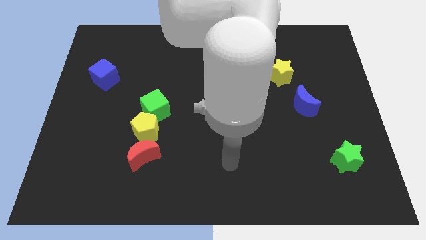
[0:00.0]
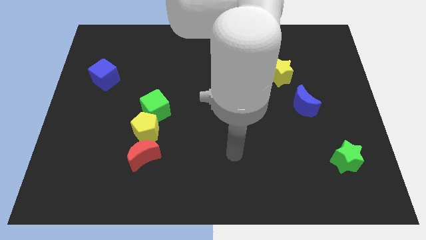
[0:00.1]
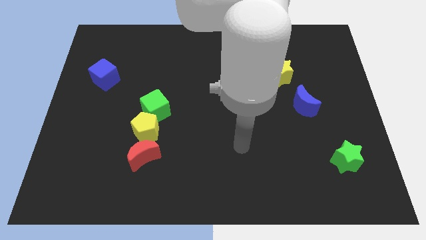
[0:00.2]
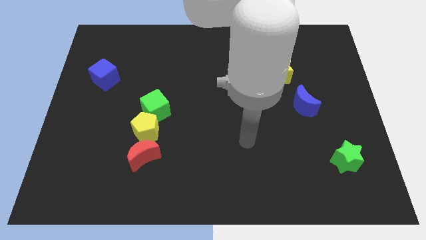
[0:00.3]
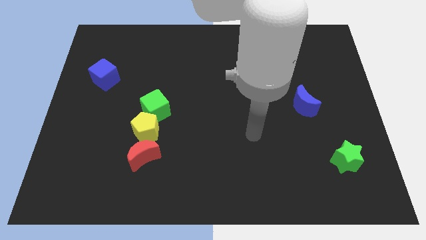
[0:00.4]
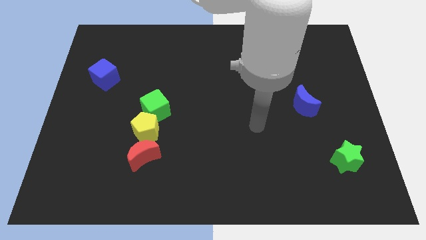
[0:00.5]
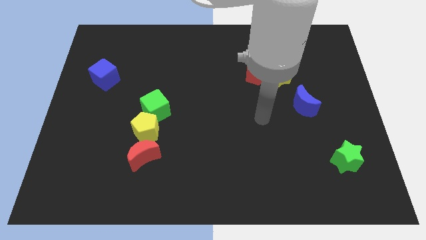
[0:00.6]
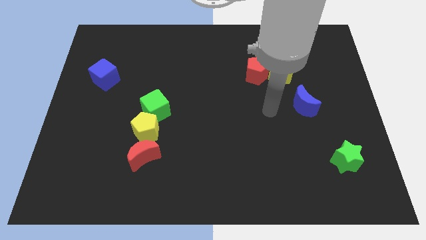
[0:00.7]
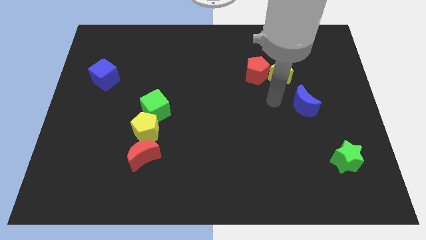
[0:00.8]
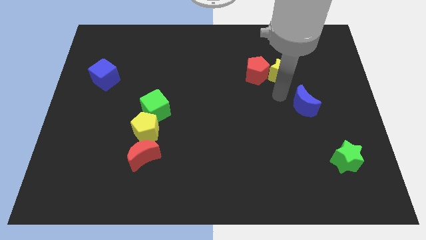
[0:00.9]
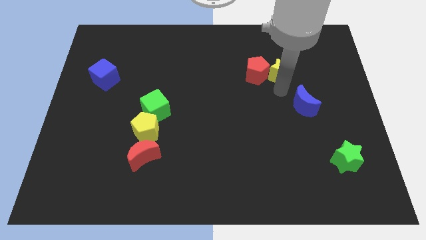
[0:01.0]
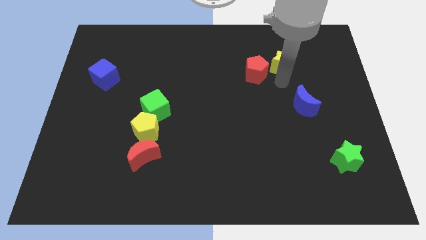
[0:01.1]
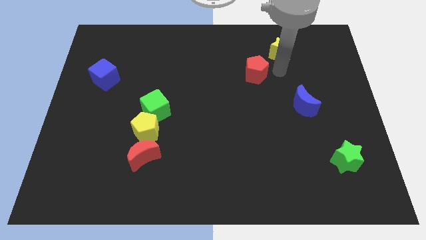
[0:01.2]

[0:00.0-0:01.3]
separate the red pentagon from the yellow star

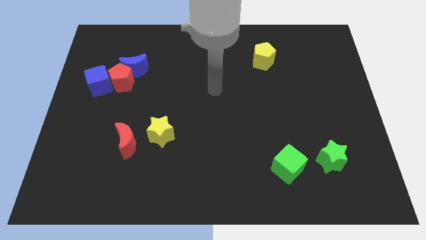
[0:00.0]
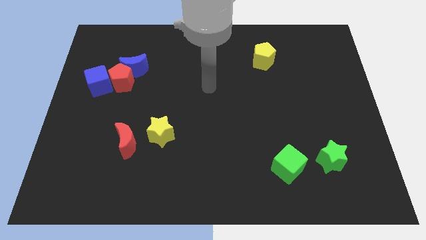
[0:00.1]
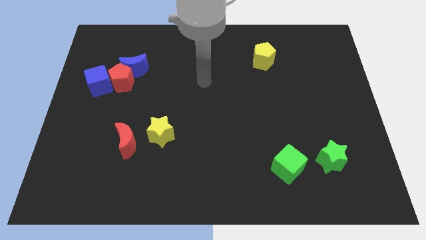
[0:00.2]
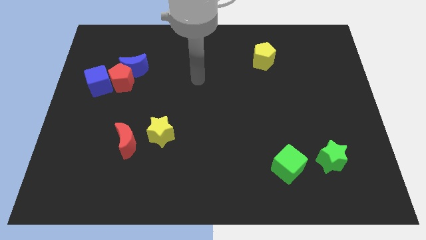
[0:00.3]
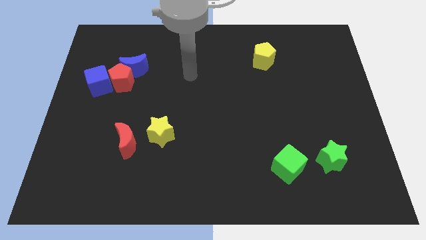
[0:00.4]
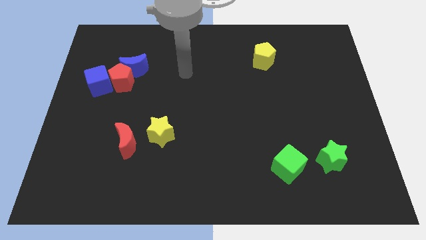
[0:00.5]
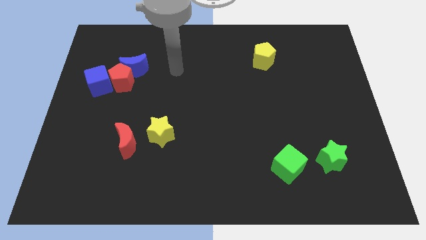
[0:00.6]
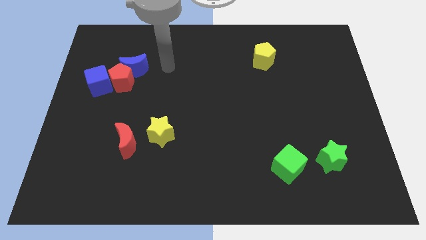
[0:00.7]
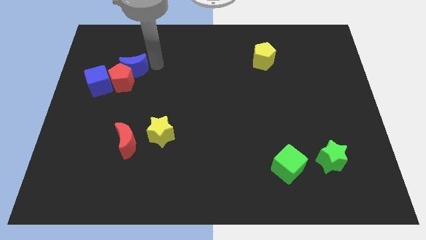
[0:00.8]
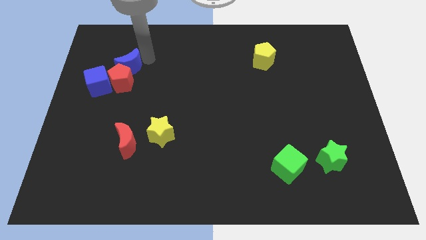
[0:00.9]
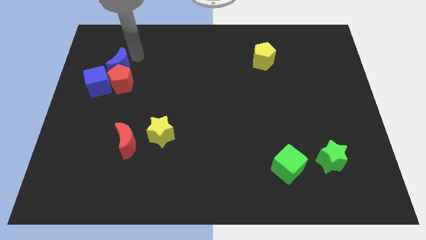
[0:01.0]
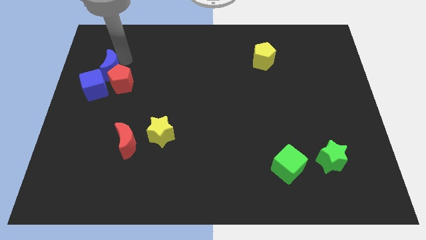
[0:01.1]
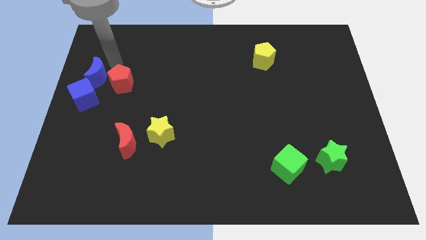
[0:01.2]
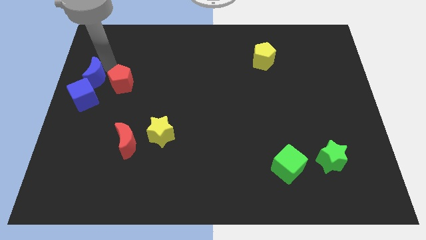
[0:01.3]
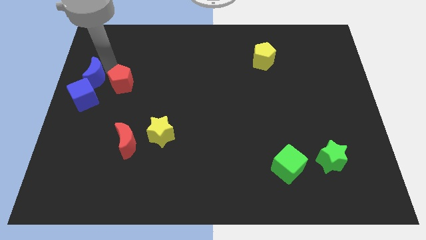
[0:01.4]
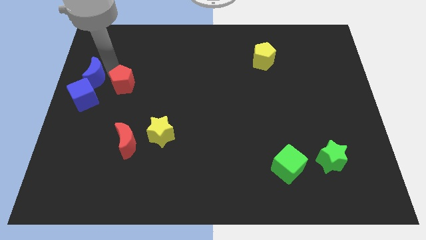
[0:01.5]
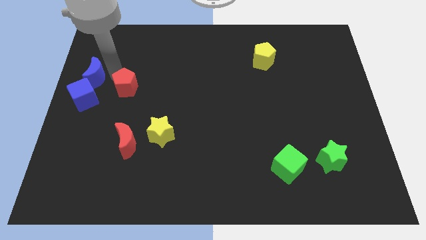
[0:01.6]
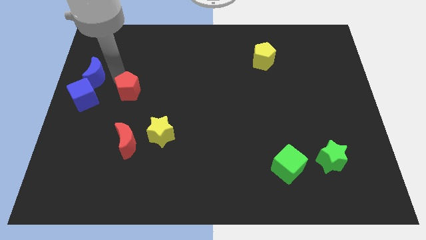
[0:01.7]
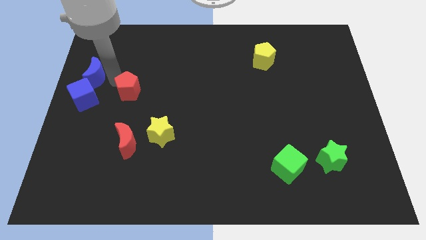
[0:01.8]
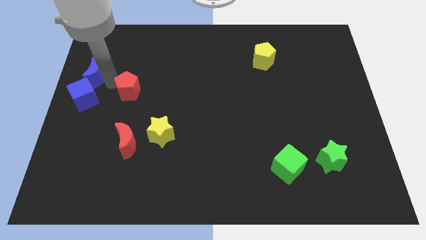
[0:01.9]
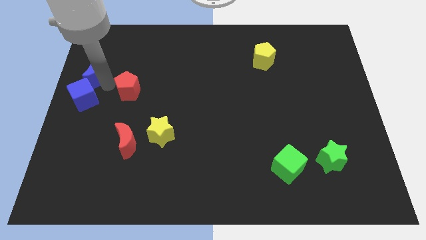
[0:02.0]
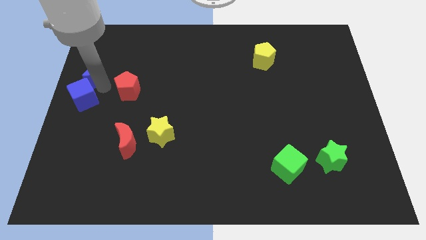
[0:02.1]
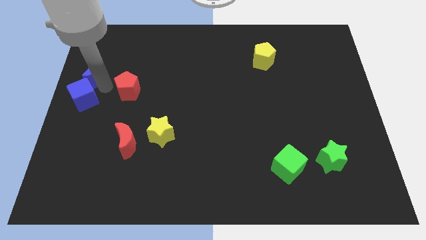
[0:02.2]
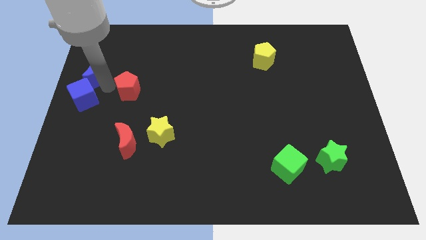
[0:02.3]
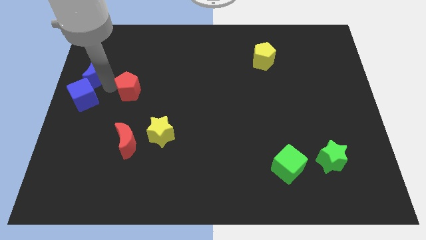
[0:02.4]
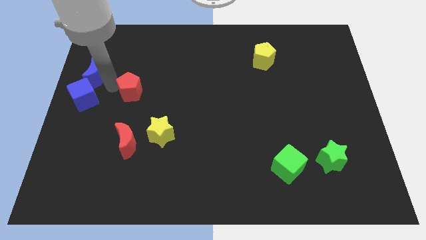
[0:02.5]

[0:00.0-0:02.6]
separate the red pentagon from the blue moon and blue cube

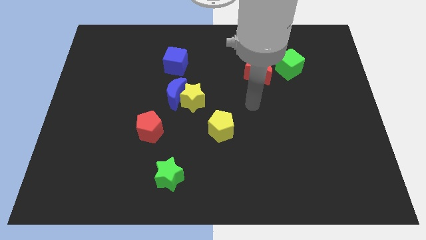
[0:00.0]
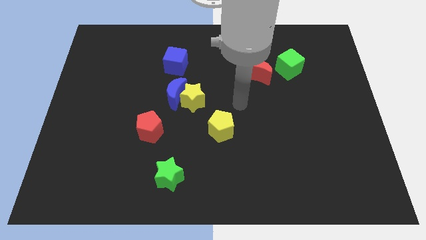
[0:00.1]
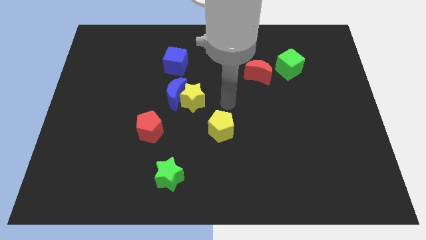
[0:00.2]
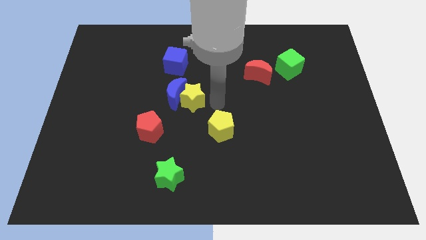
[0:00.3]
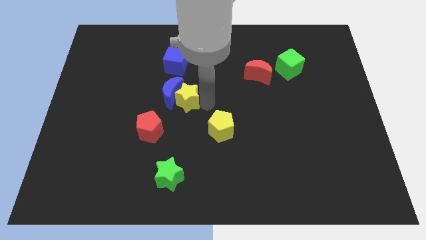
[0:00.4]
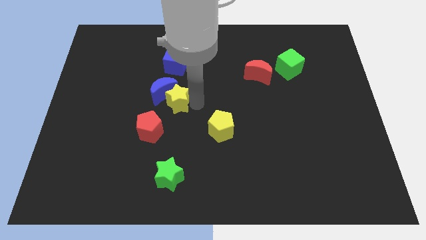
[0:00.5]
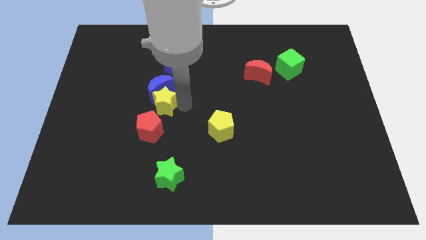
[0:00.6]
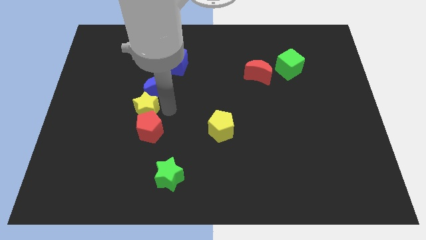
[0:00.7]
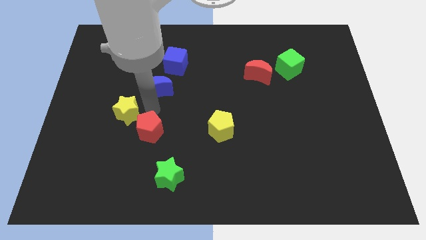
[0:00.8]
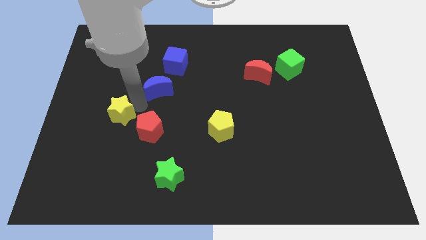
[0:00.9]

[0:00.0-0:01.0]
separate the blue moon from the yellow star

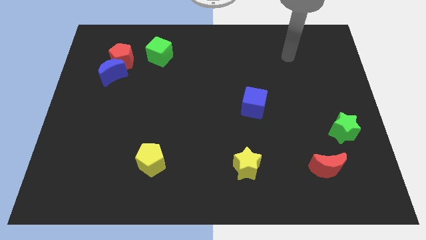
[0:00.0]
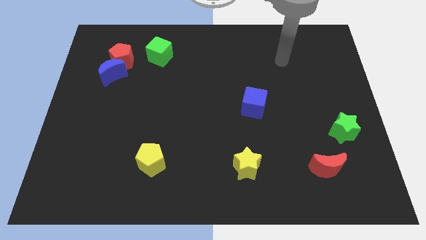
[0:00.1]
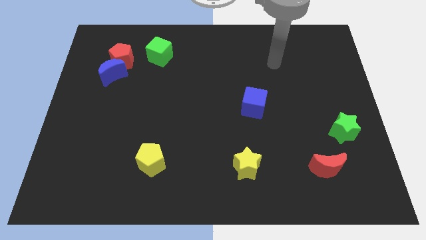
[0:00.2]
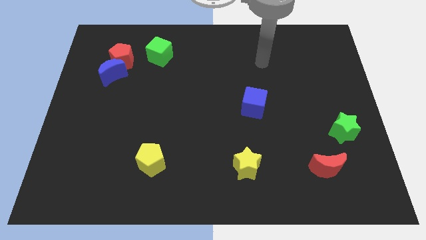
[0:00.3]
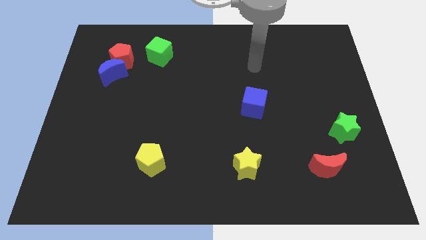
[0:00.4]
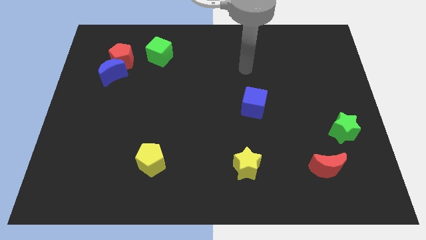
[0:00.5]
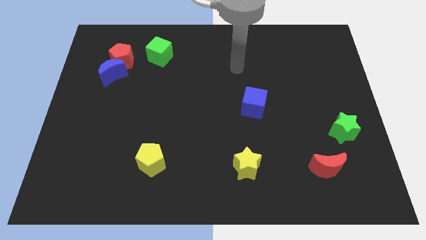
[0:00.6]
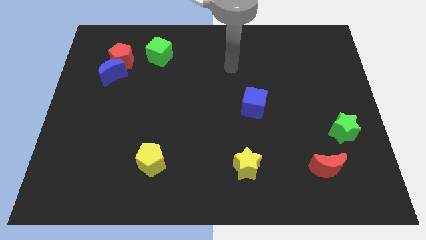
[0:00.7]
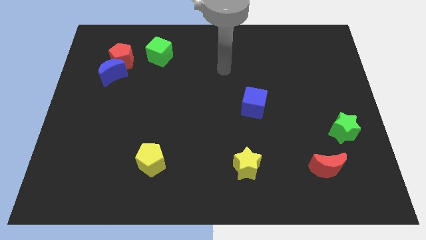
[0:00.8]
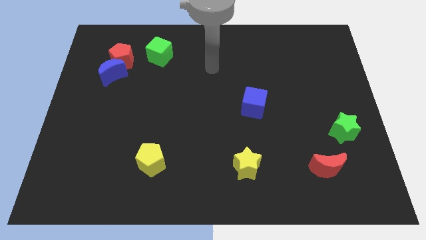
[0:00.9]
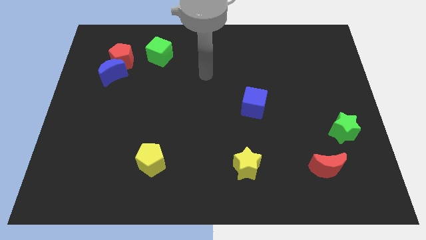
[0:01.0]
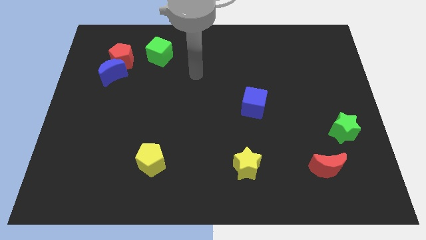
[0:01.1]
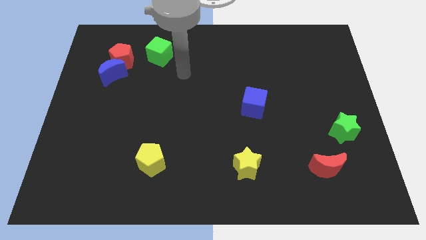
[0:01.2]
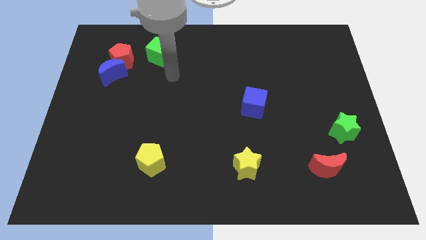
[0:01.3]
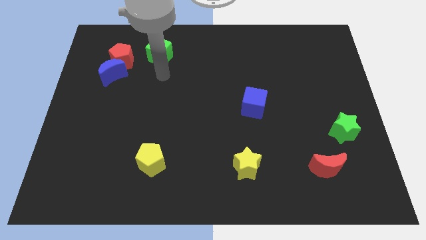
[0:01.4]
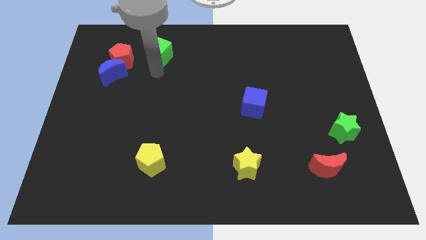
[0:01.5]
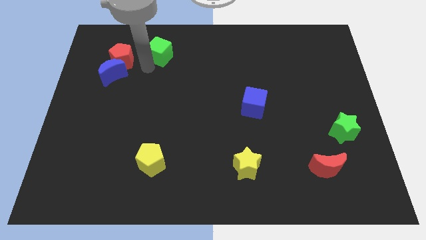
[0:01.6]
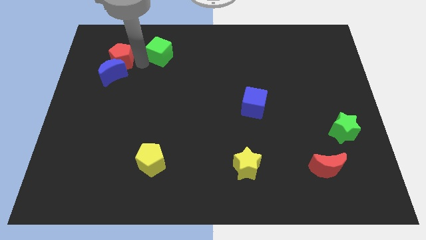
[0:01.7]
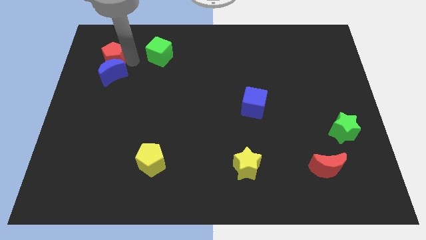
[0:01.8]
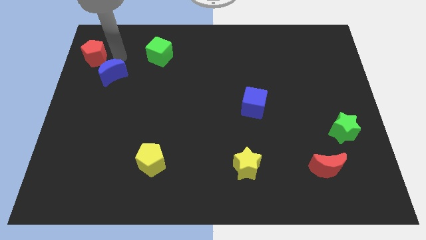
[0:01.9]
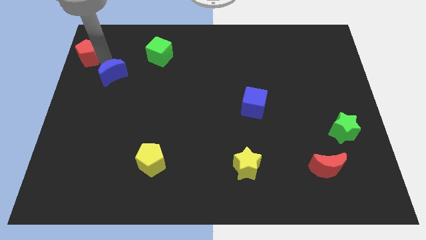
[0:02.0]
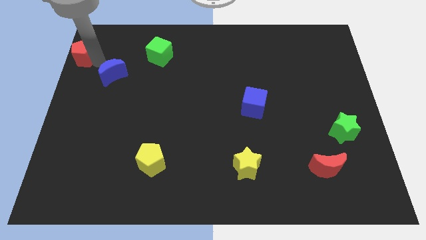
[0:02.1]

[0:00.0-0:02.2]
separate the blue moon from the red pentagon

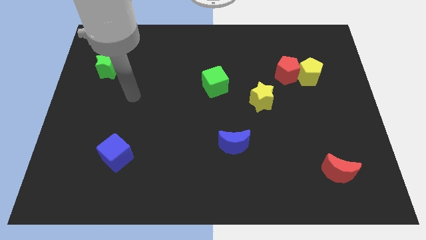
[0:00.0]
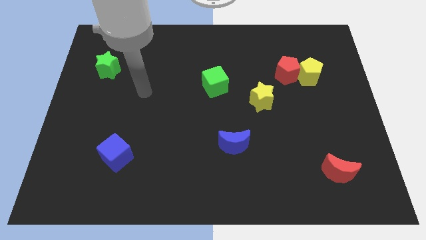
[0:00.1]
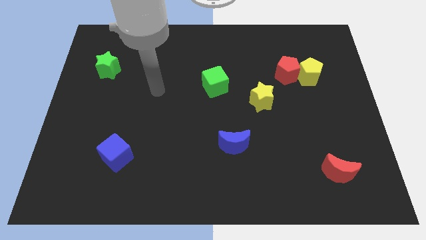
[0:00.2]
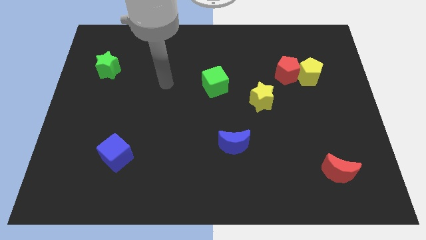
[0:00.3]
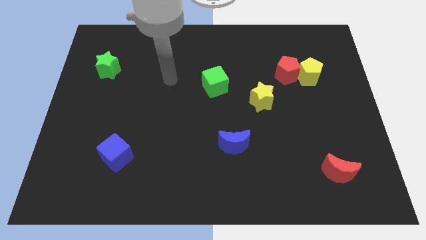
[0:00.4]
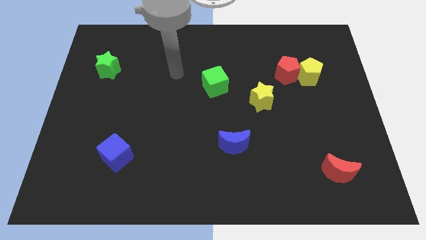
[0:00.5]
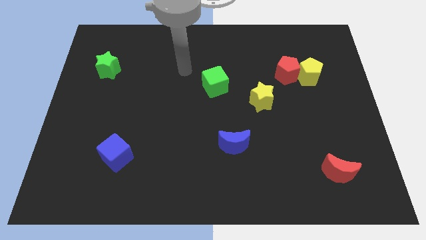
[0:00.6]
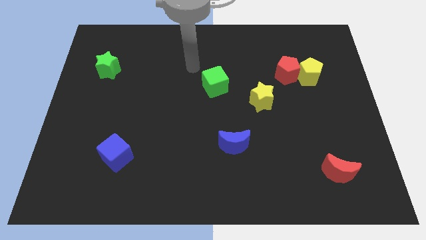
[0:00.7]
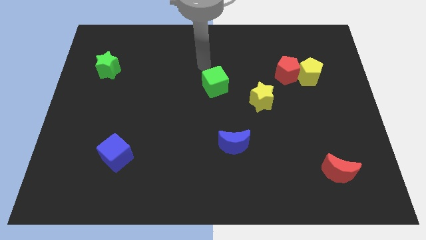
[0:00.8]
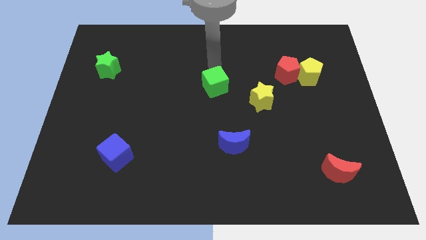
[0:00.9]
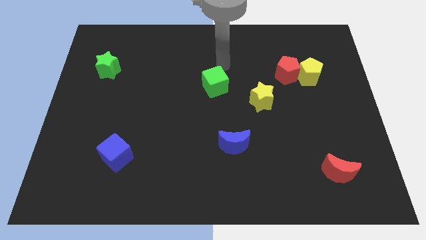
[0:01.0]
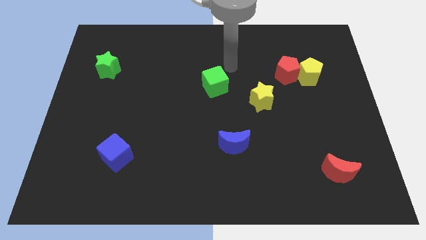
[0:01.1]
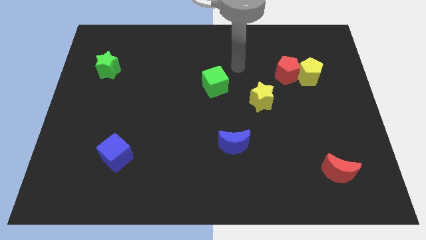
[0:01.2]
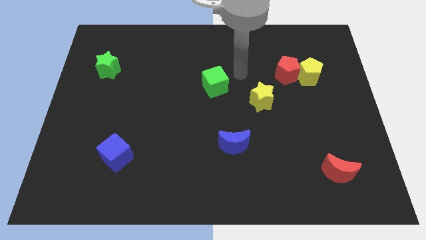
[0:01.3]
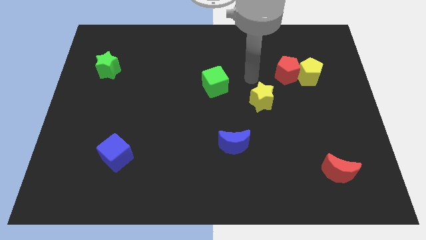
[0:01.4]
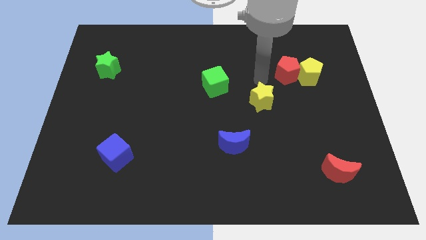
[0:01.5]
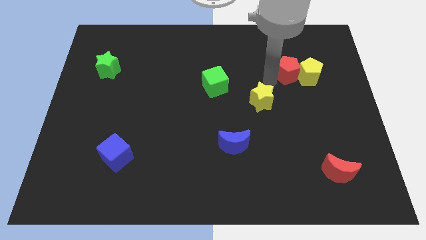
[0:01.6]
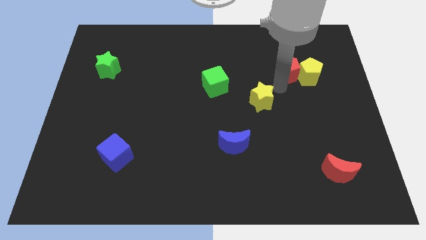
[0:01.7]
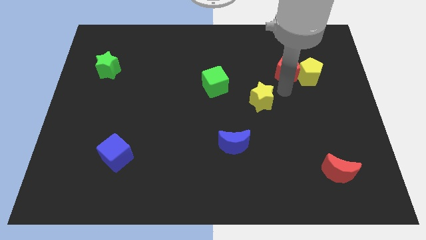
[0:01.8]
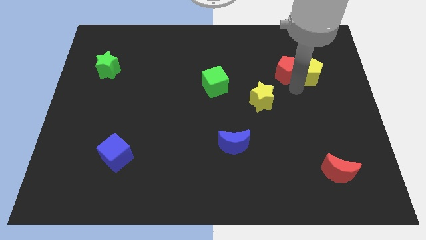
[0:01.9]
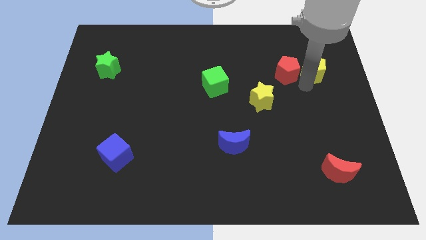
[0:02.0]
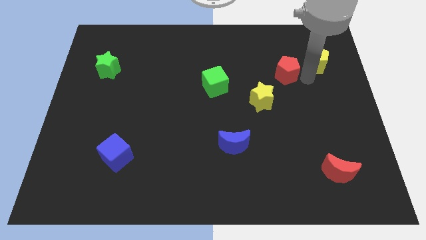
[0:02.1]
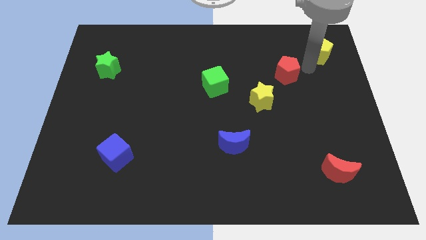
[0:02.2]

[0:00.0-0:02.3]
pull the red pentagon apart from the yellow pentagon
